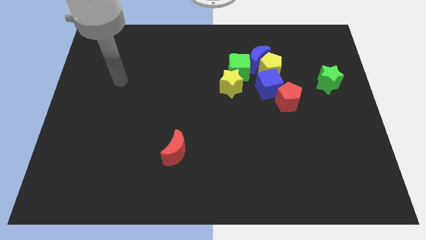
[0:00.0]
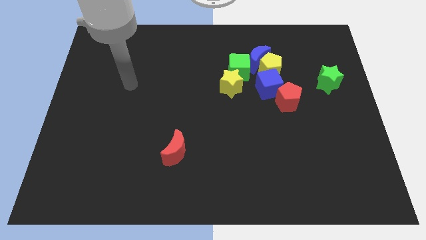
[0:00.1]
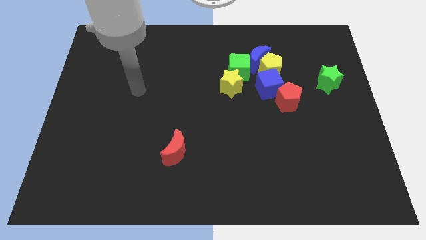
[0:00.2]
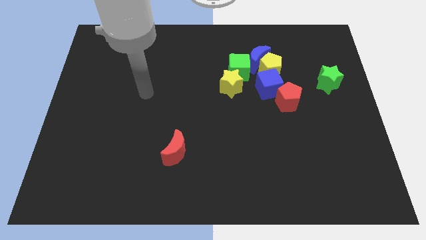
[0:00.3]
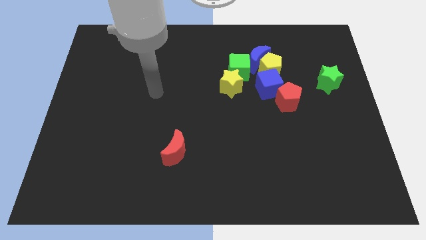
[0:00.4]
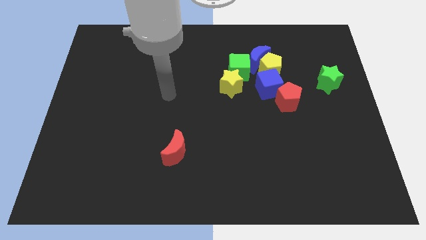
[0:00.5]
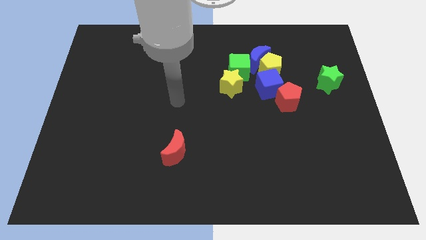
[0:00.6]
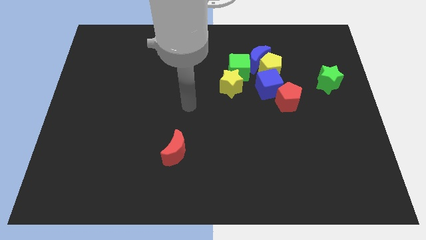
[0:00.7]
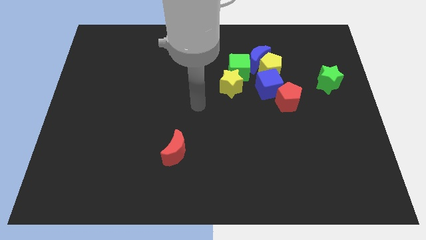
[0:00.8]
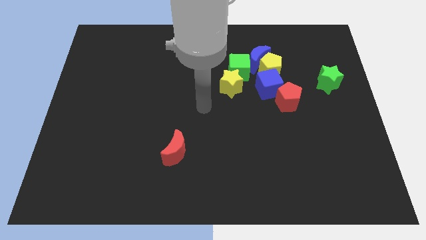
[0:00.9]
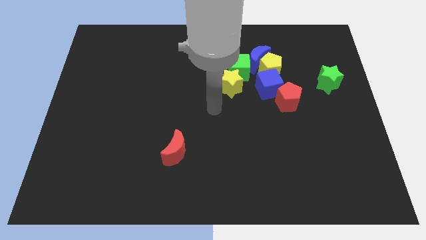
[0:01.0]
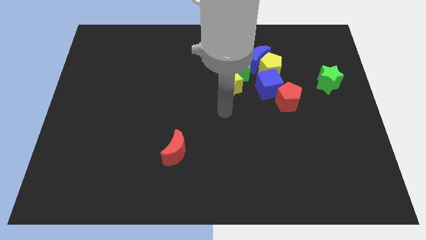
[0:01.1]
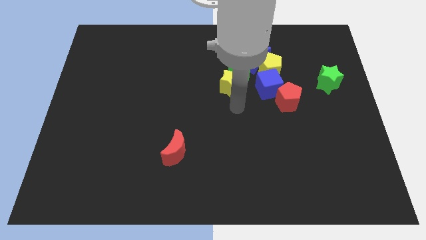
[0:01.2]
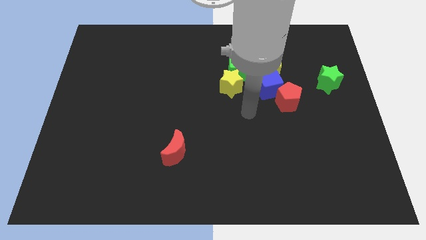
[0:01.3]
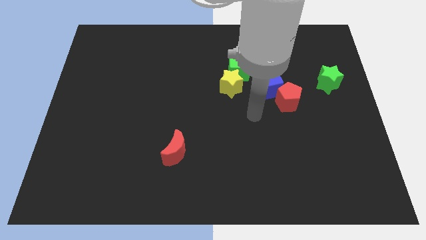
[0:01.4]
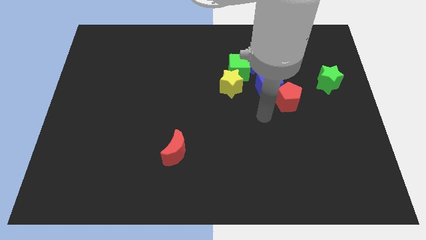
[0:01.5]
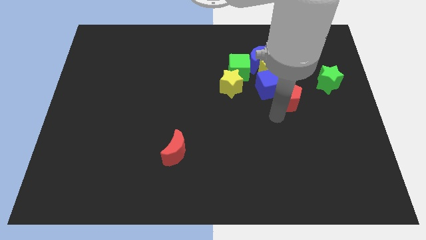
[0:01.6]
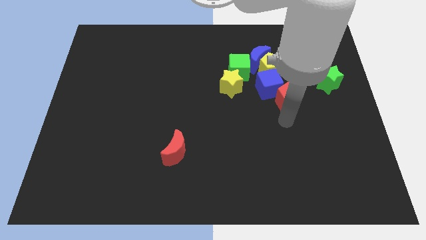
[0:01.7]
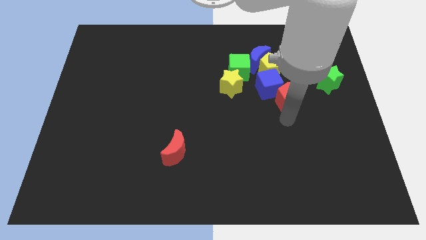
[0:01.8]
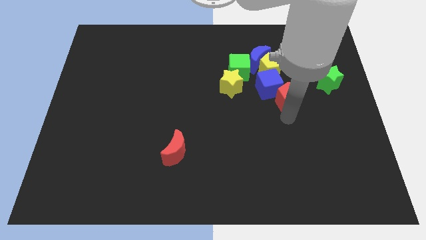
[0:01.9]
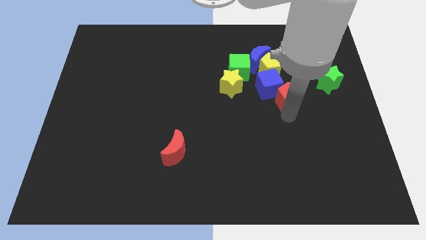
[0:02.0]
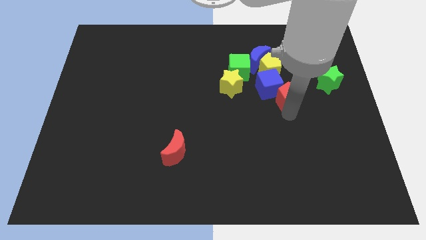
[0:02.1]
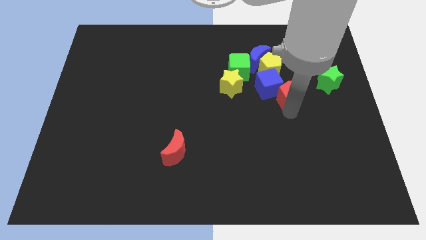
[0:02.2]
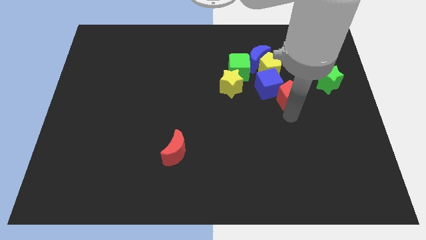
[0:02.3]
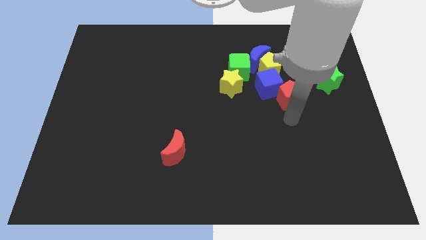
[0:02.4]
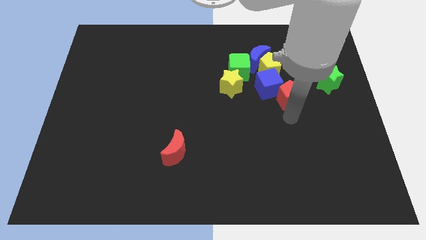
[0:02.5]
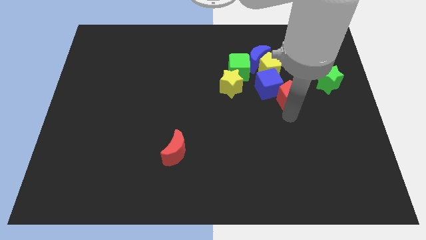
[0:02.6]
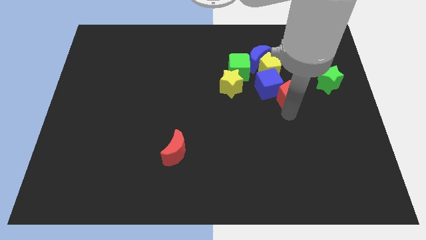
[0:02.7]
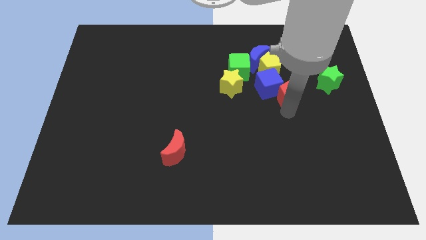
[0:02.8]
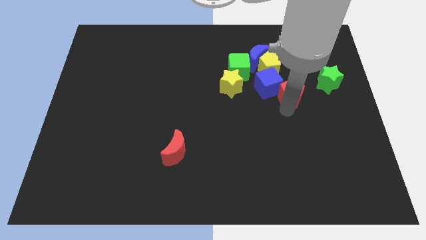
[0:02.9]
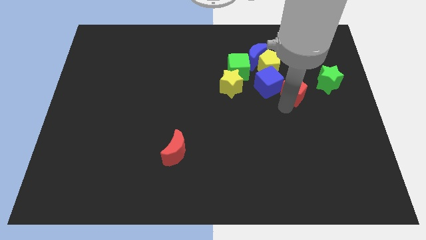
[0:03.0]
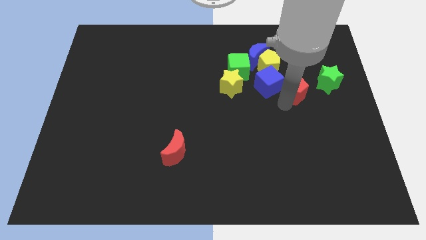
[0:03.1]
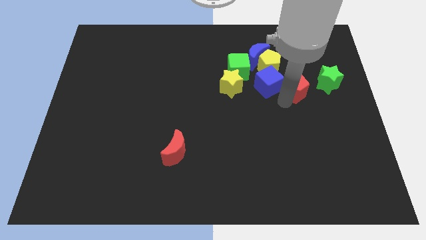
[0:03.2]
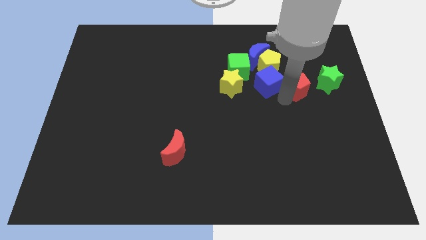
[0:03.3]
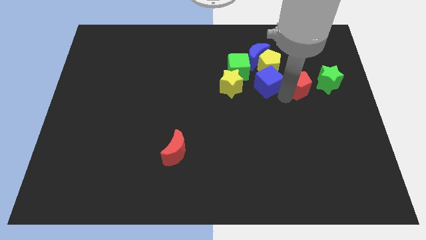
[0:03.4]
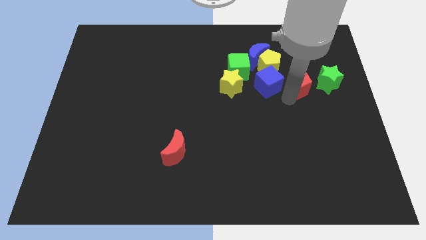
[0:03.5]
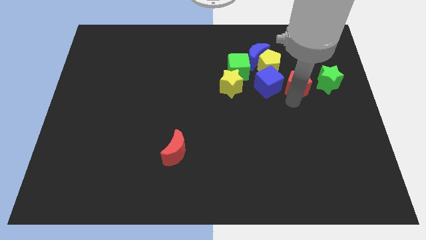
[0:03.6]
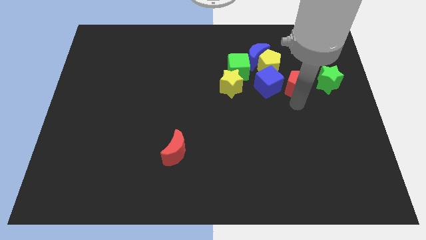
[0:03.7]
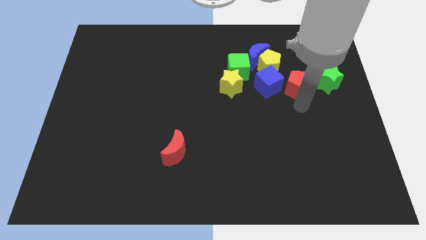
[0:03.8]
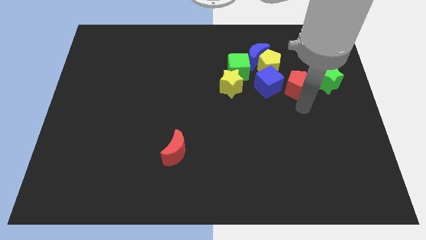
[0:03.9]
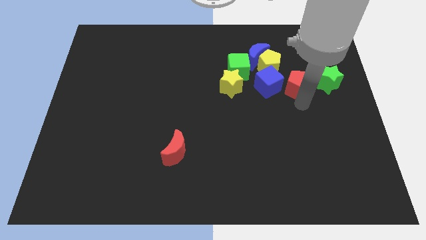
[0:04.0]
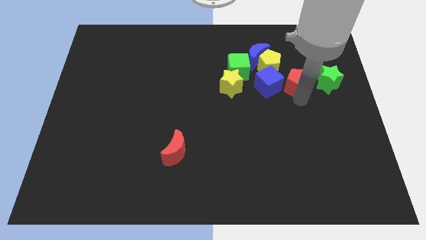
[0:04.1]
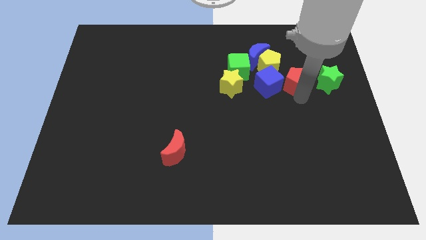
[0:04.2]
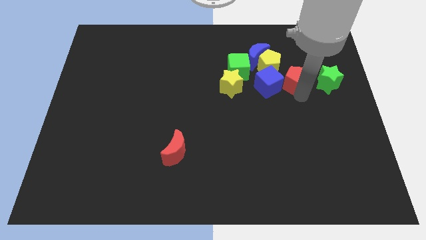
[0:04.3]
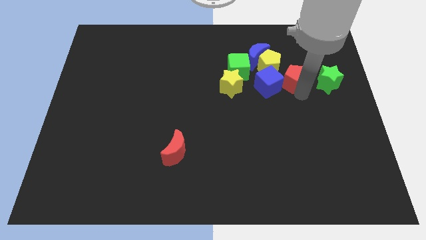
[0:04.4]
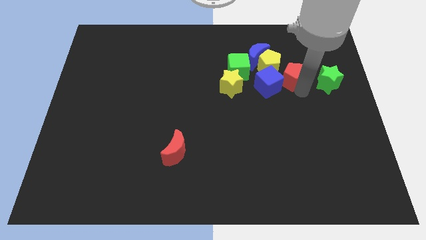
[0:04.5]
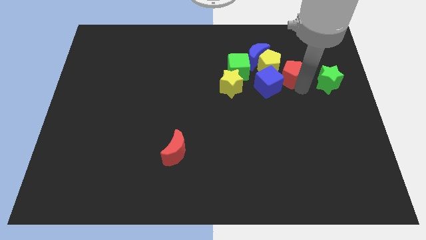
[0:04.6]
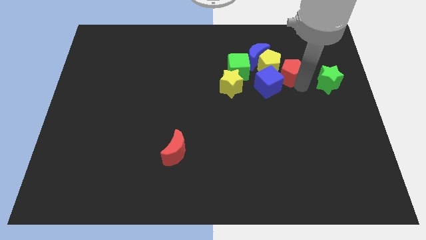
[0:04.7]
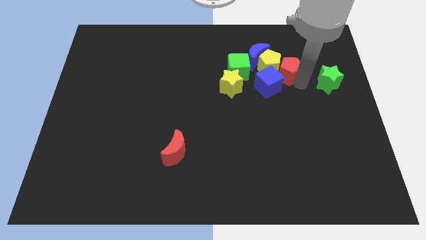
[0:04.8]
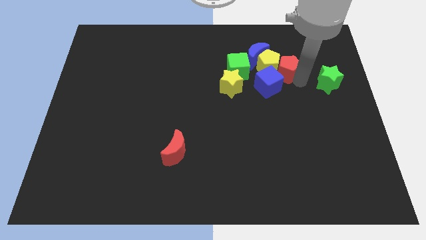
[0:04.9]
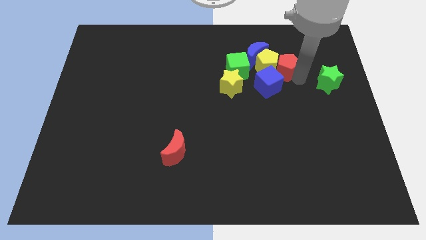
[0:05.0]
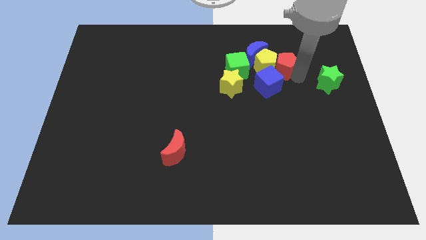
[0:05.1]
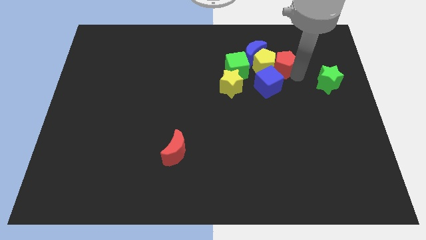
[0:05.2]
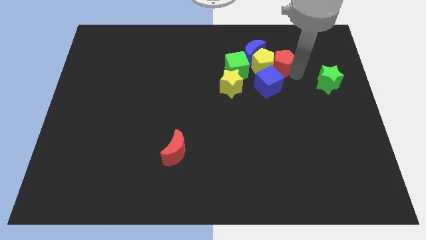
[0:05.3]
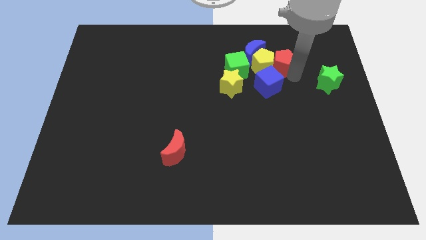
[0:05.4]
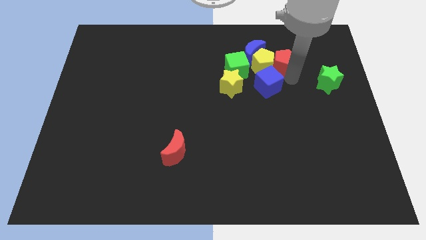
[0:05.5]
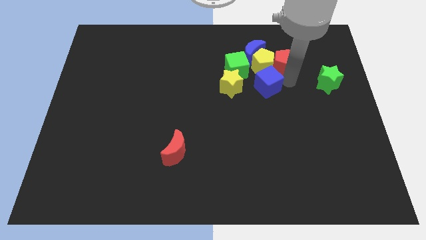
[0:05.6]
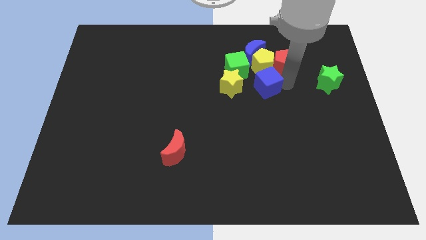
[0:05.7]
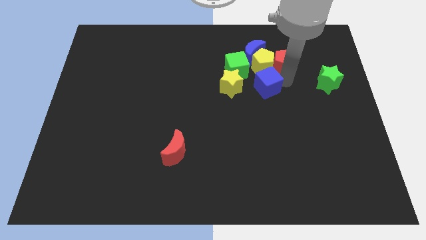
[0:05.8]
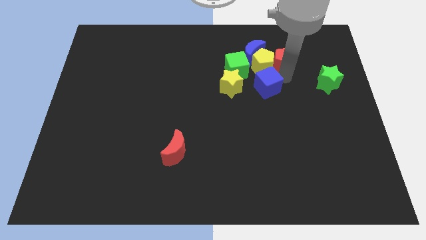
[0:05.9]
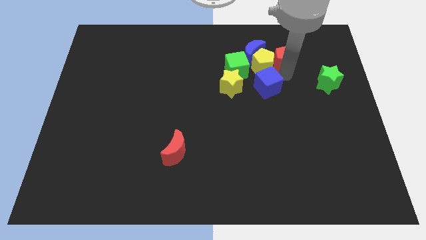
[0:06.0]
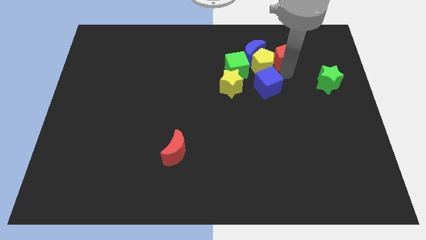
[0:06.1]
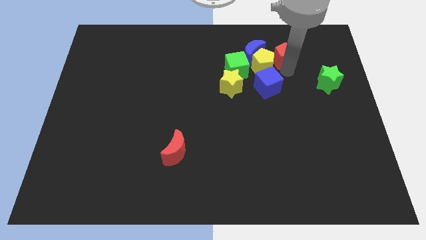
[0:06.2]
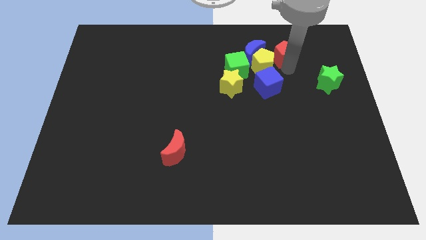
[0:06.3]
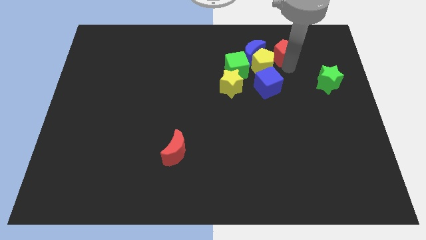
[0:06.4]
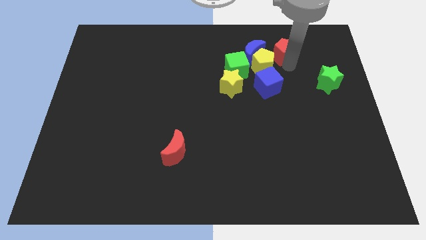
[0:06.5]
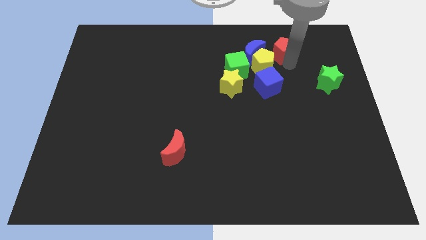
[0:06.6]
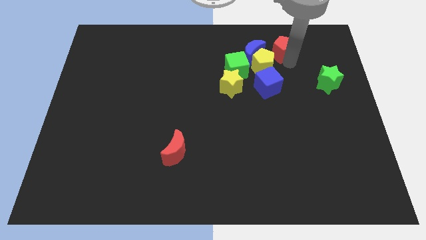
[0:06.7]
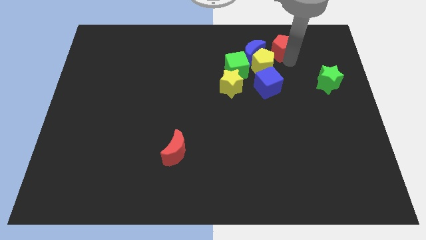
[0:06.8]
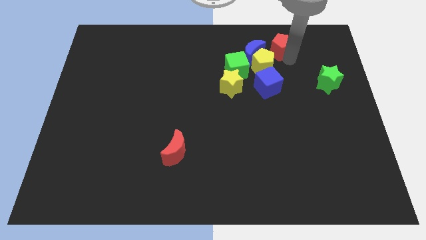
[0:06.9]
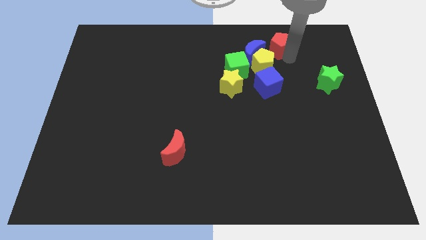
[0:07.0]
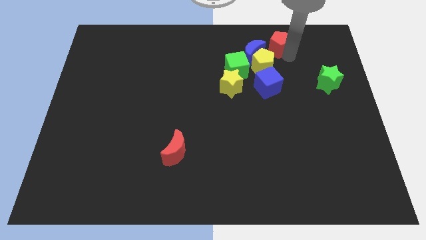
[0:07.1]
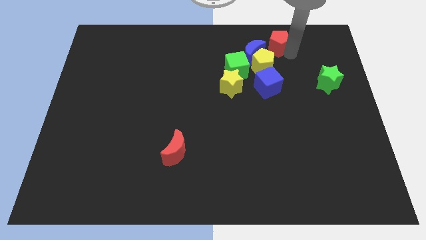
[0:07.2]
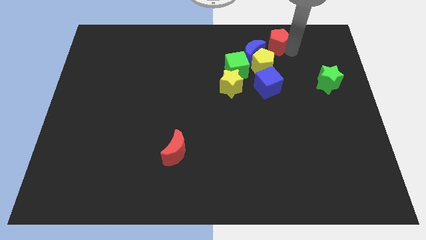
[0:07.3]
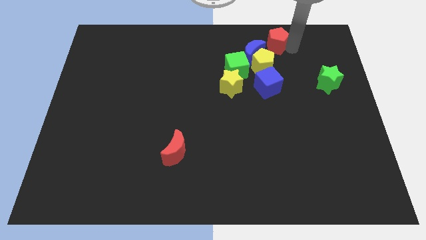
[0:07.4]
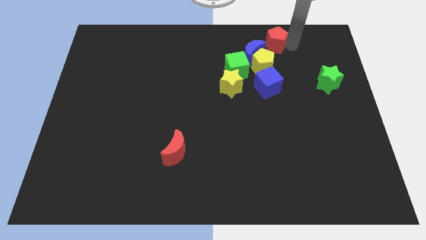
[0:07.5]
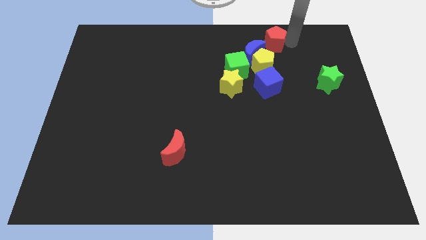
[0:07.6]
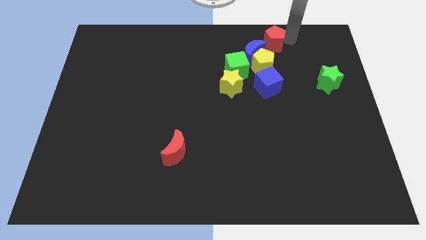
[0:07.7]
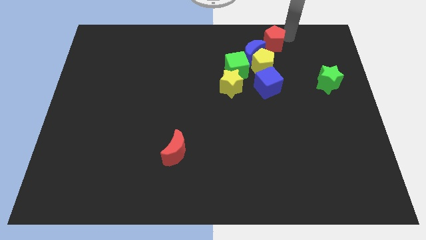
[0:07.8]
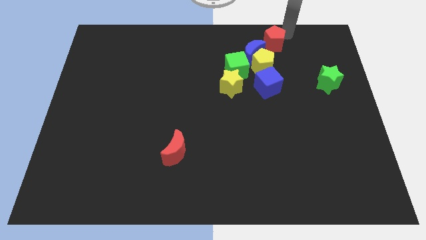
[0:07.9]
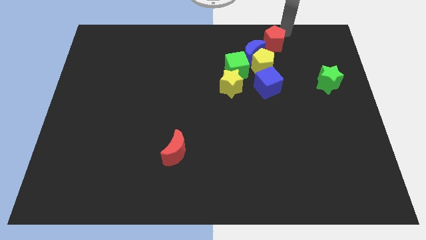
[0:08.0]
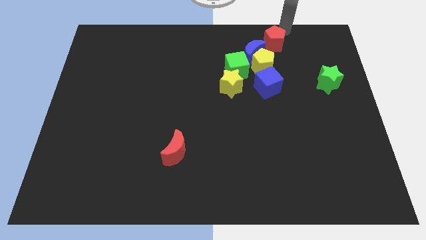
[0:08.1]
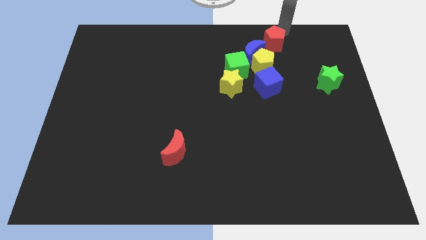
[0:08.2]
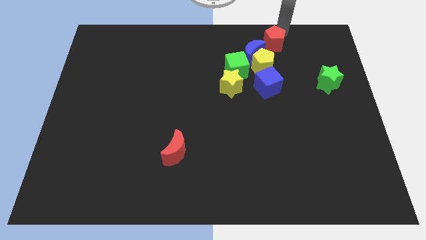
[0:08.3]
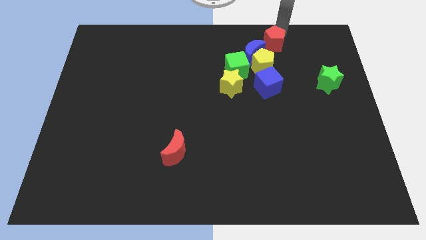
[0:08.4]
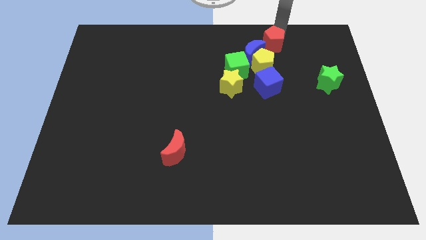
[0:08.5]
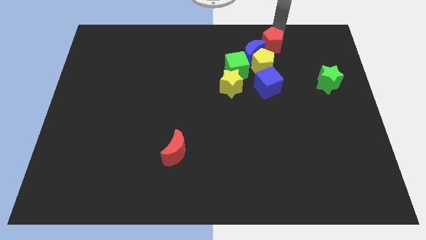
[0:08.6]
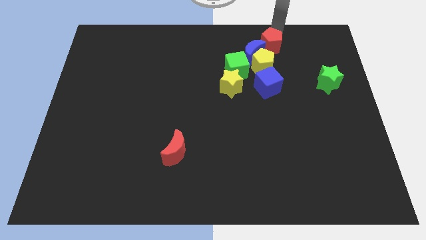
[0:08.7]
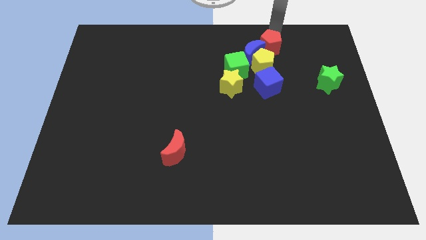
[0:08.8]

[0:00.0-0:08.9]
put the red pentagon next to the blue moon
